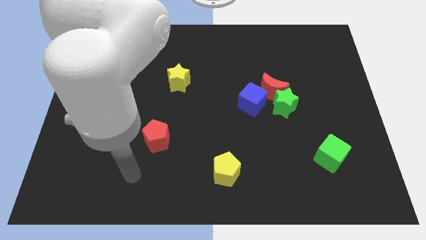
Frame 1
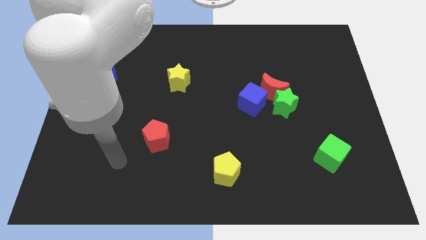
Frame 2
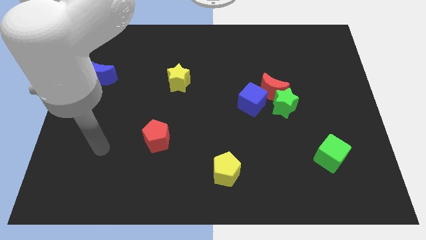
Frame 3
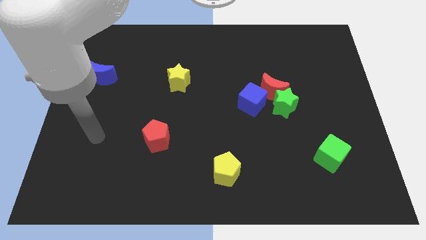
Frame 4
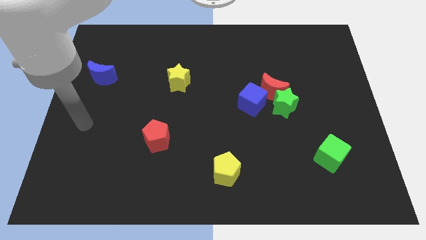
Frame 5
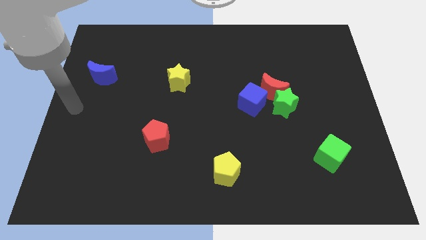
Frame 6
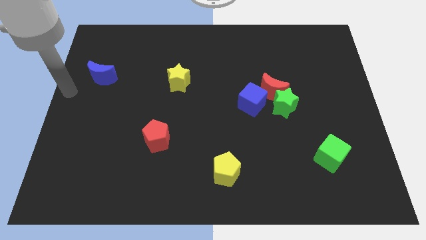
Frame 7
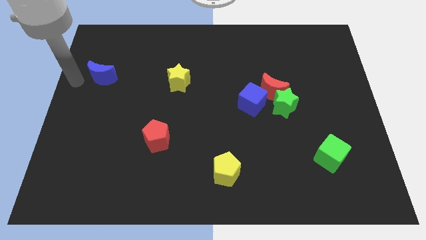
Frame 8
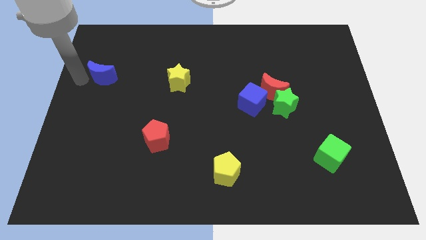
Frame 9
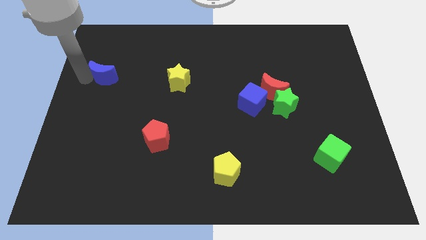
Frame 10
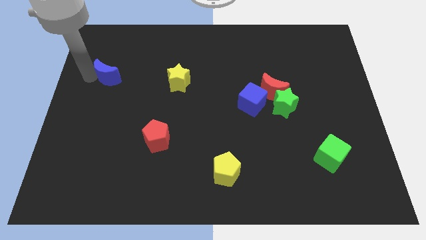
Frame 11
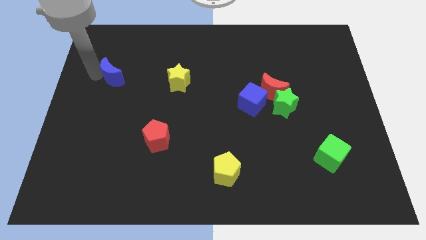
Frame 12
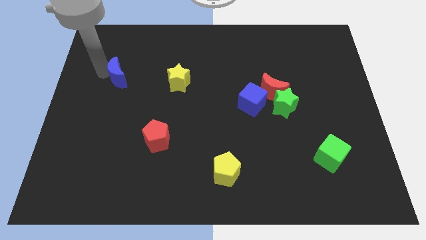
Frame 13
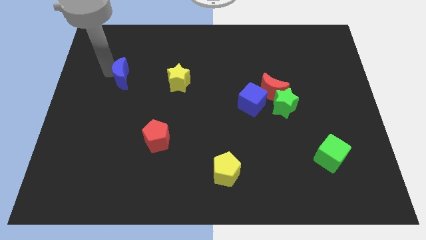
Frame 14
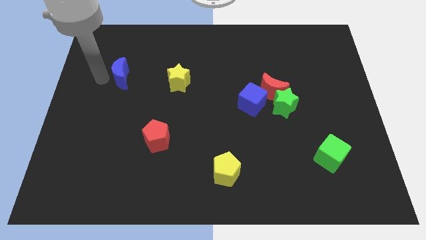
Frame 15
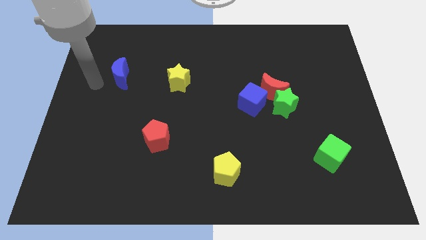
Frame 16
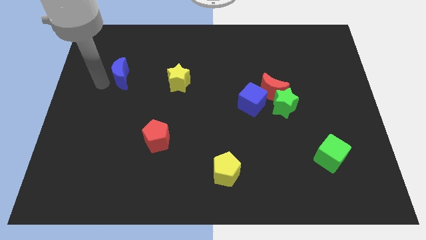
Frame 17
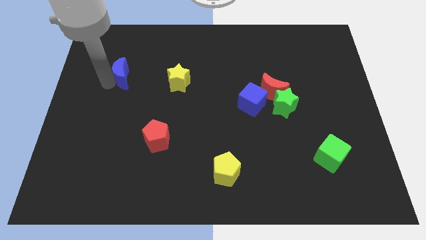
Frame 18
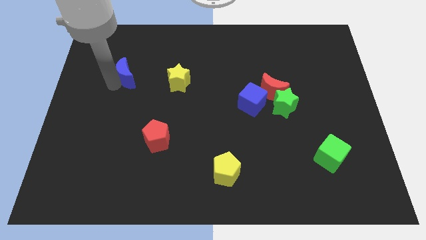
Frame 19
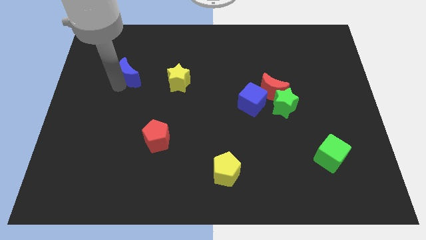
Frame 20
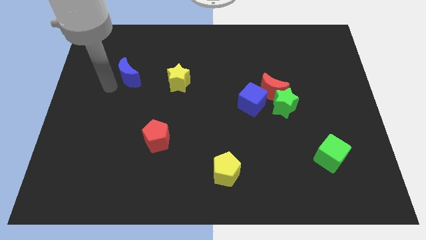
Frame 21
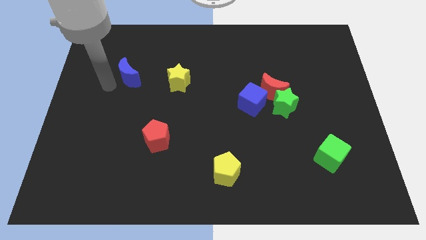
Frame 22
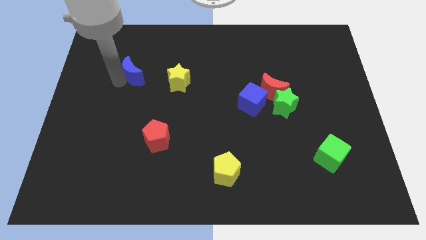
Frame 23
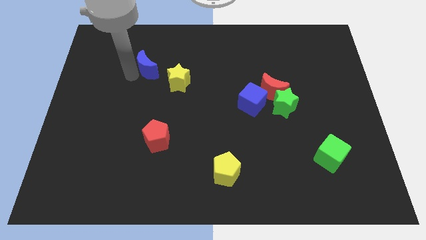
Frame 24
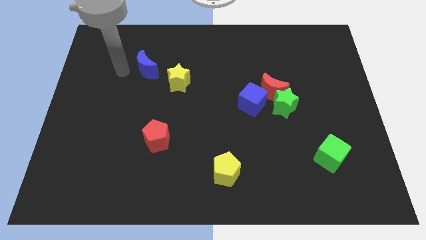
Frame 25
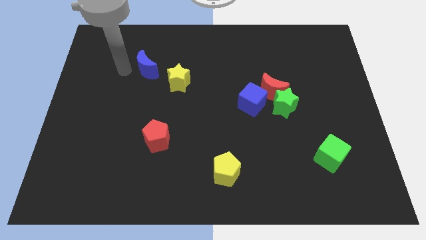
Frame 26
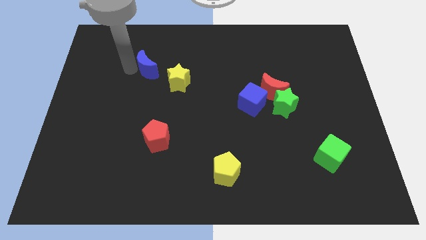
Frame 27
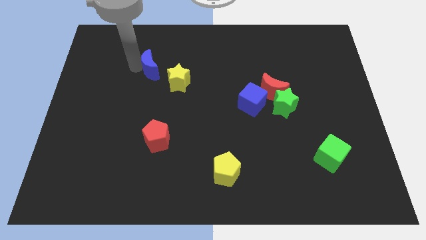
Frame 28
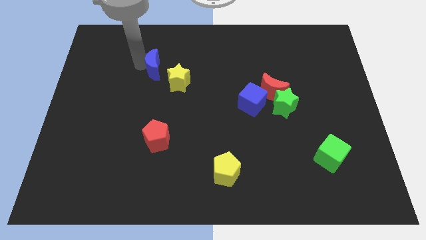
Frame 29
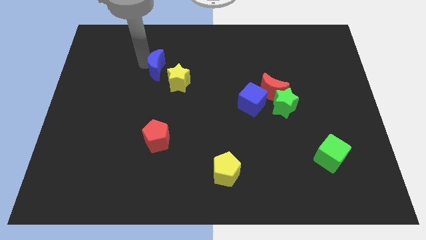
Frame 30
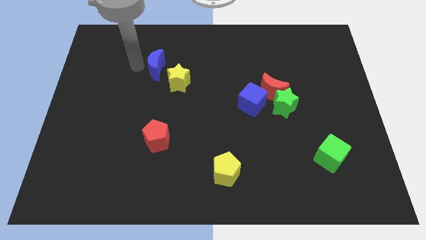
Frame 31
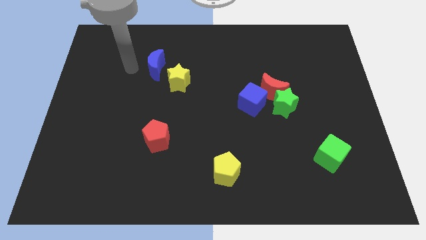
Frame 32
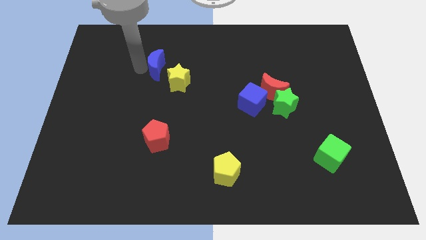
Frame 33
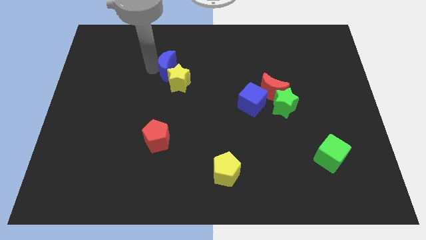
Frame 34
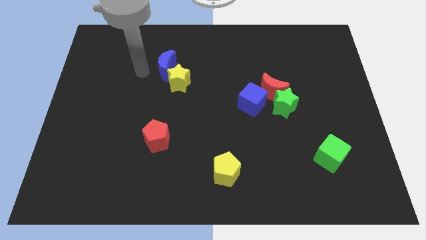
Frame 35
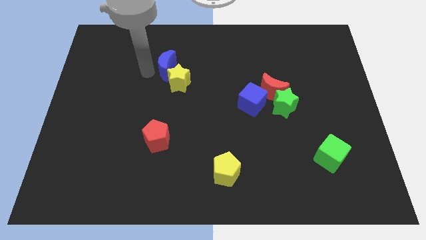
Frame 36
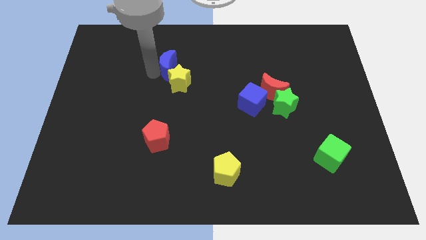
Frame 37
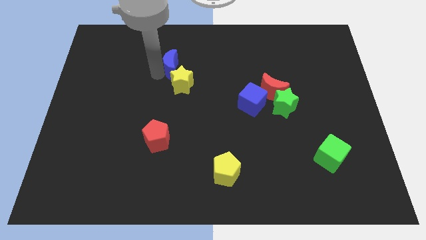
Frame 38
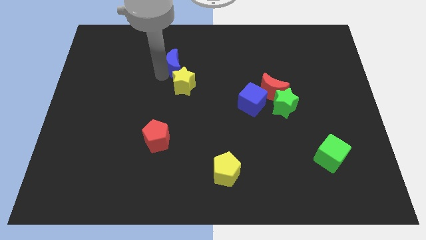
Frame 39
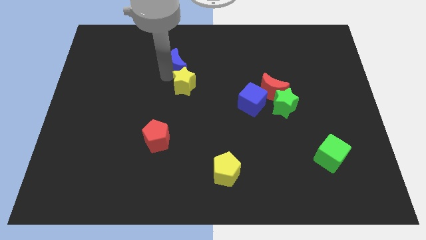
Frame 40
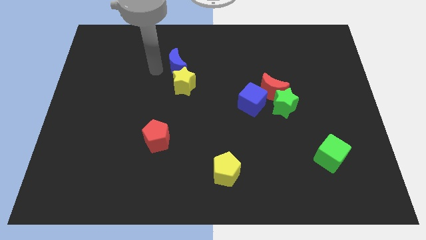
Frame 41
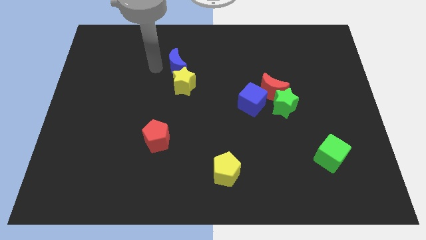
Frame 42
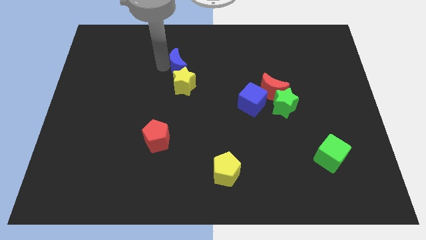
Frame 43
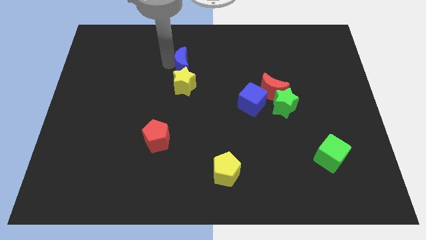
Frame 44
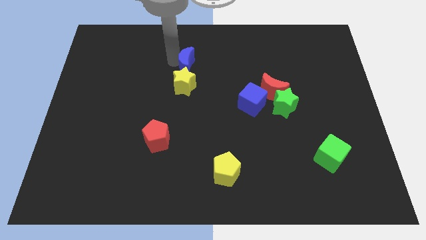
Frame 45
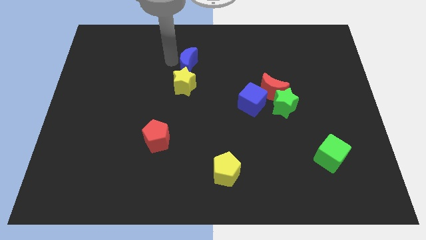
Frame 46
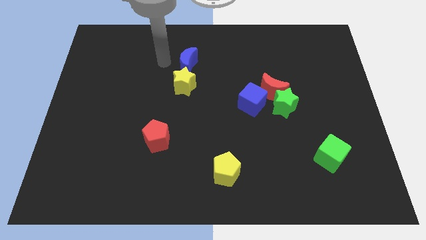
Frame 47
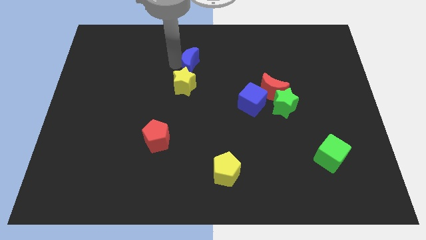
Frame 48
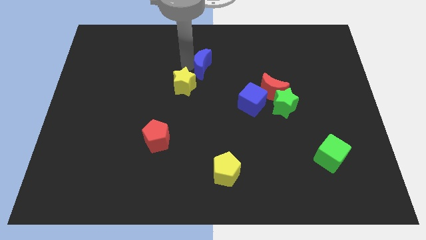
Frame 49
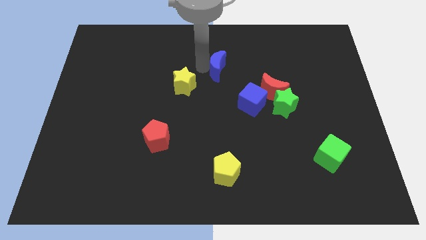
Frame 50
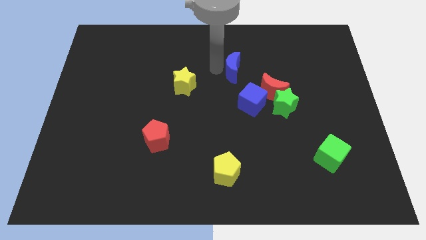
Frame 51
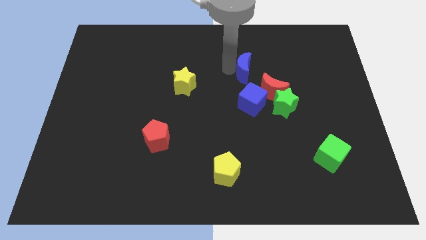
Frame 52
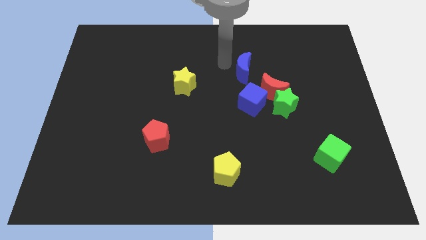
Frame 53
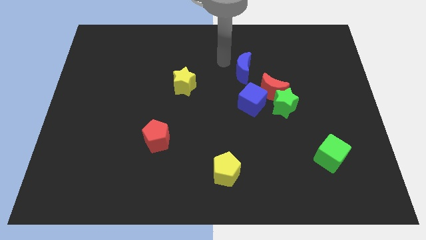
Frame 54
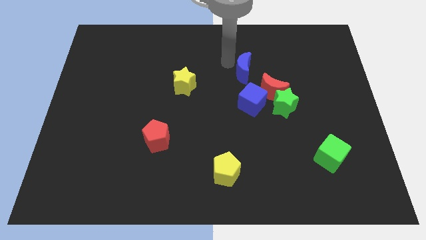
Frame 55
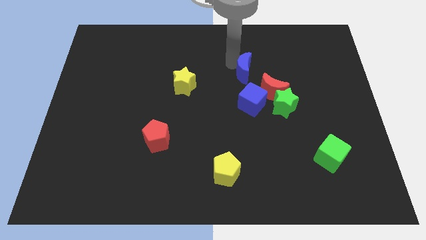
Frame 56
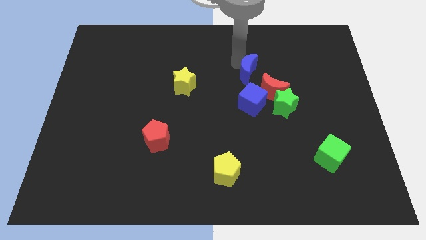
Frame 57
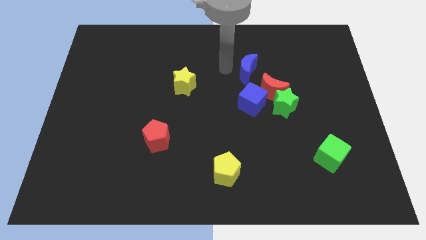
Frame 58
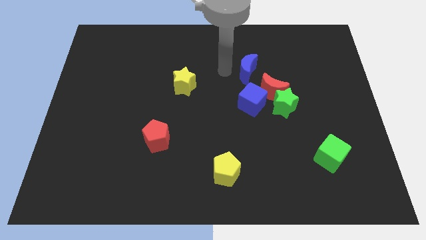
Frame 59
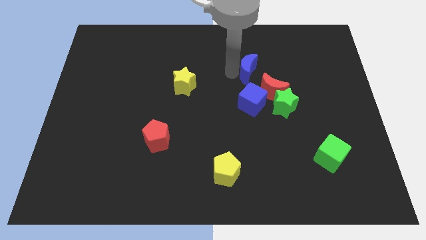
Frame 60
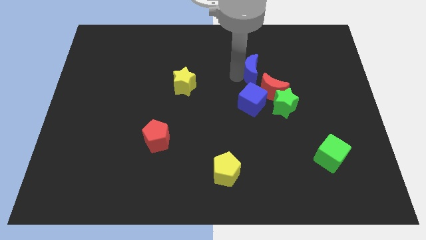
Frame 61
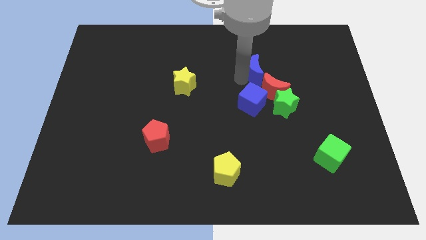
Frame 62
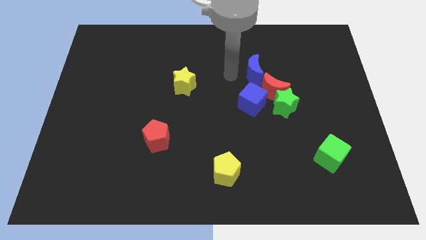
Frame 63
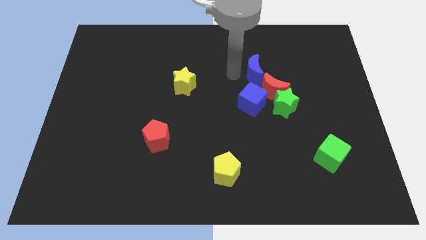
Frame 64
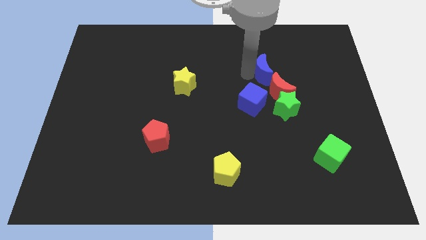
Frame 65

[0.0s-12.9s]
put the blue moon above the green star

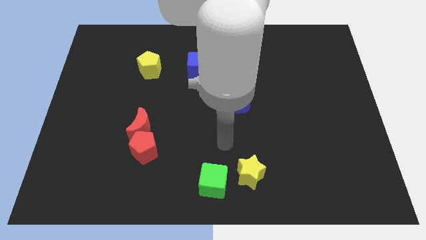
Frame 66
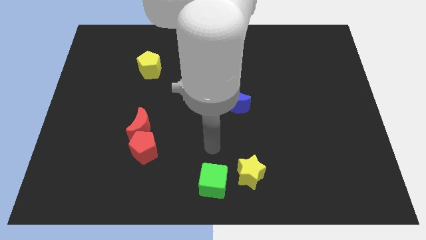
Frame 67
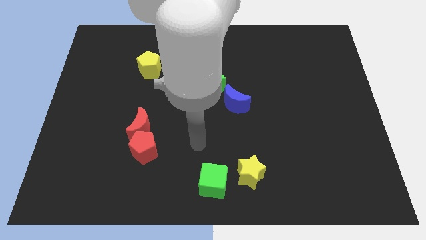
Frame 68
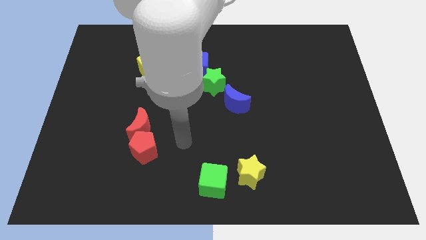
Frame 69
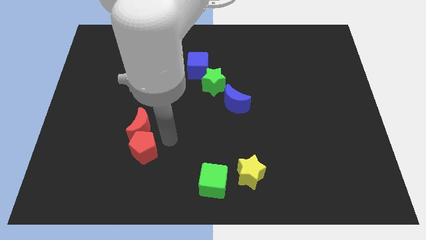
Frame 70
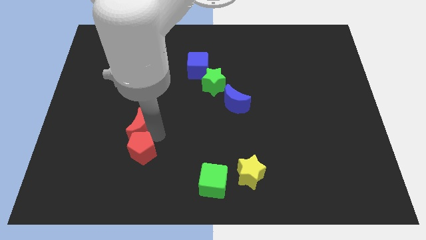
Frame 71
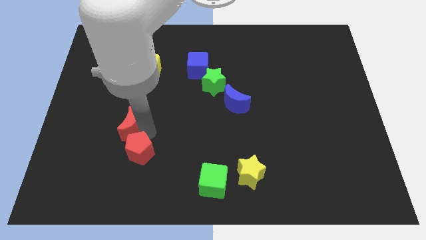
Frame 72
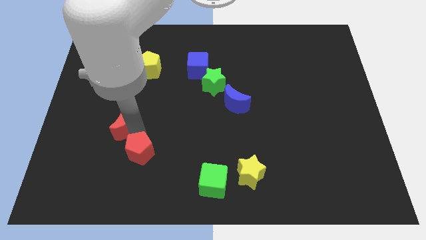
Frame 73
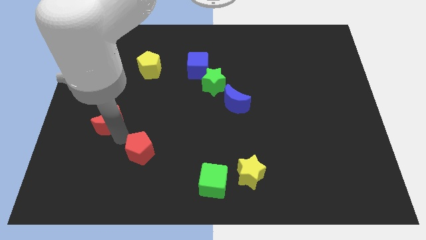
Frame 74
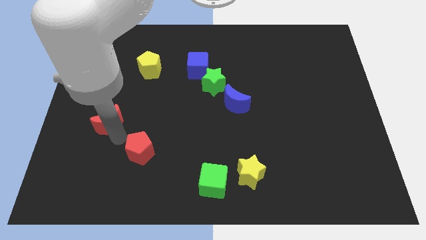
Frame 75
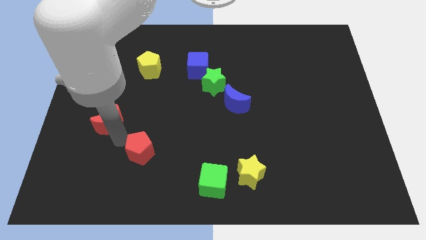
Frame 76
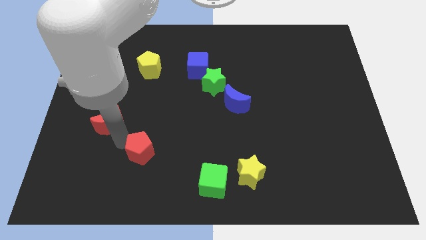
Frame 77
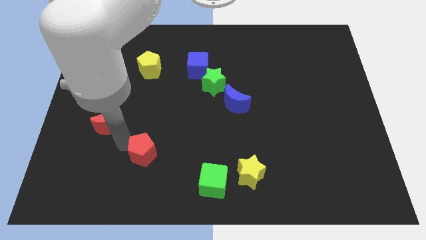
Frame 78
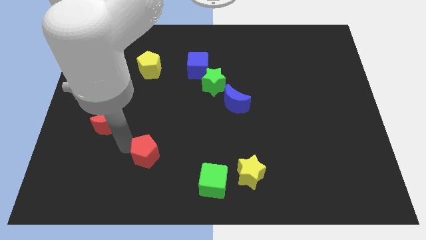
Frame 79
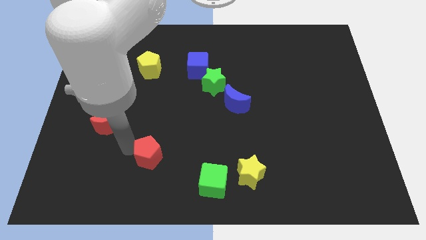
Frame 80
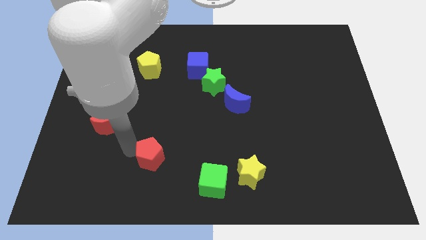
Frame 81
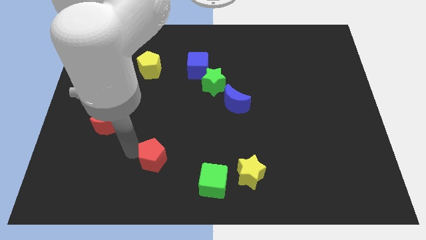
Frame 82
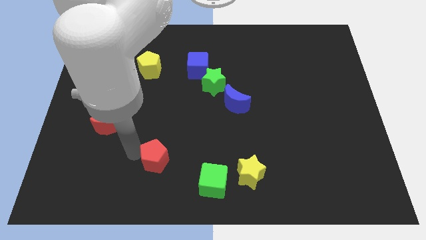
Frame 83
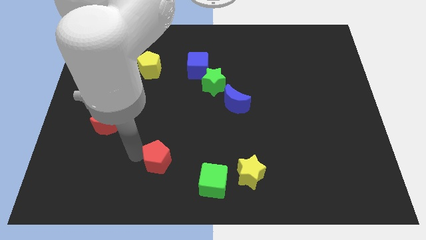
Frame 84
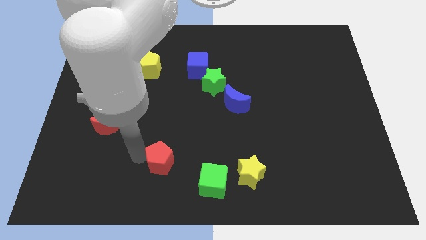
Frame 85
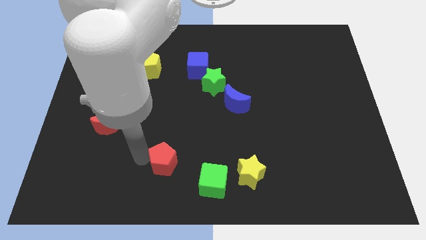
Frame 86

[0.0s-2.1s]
slide the red pentagon to the top left of the green cube
